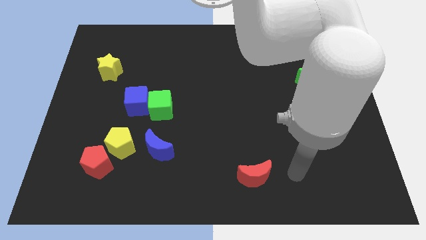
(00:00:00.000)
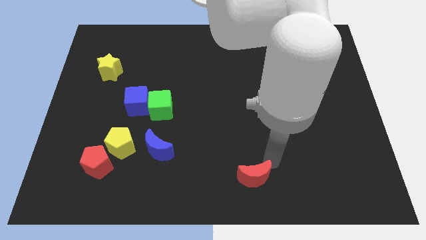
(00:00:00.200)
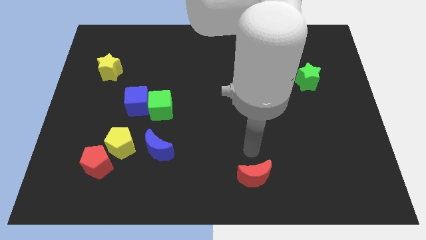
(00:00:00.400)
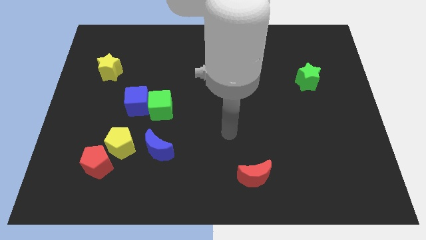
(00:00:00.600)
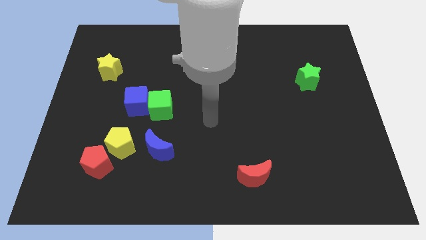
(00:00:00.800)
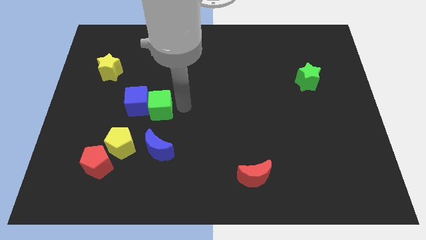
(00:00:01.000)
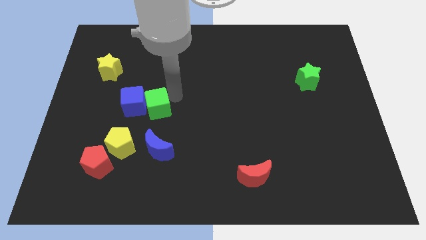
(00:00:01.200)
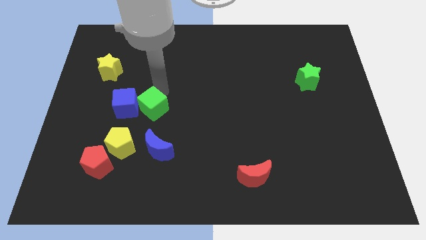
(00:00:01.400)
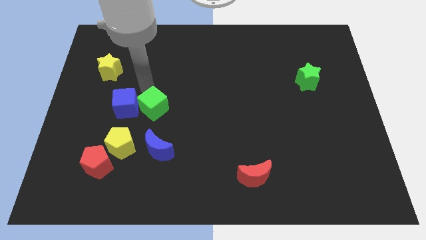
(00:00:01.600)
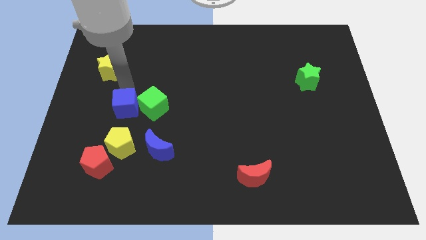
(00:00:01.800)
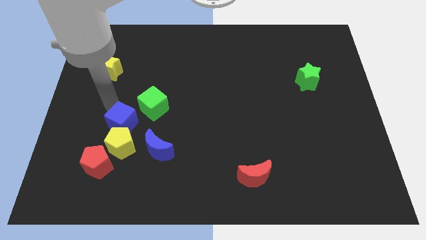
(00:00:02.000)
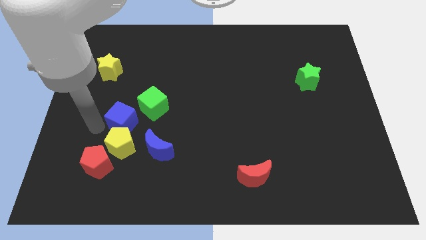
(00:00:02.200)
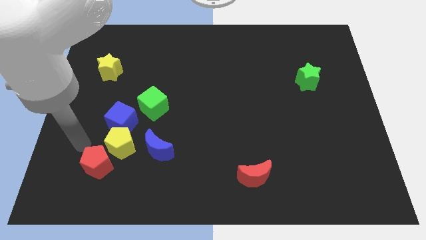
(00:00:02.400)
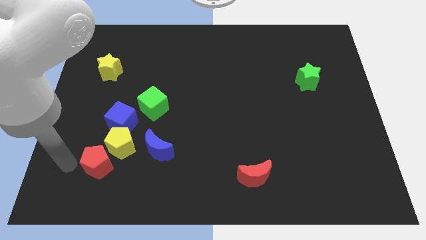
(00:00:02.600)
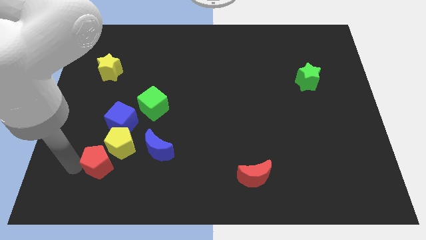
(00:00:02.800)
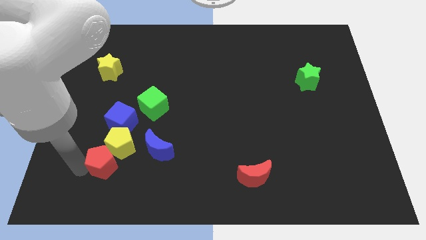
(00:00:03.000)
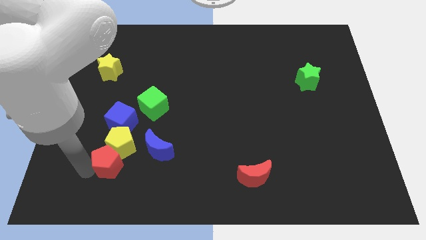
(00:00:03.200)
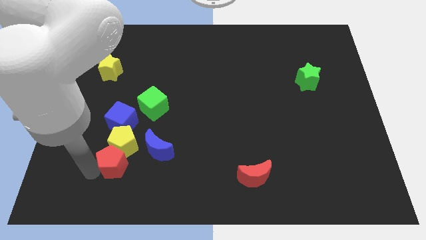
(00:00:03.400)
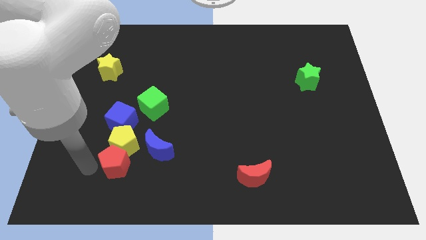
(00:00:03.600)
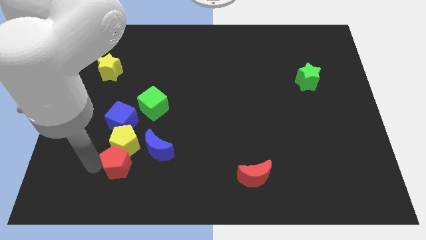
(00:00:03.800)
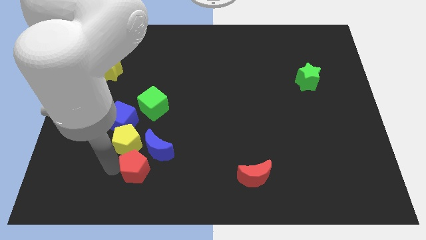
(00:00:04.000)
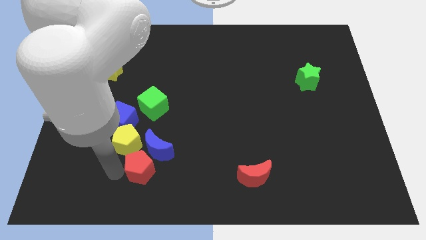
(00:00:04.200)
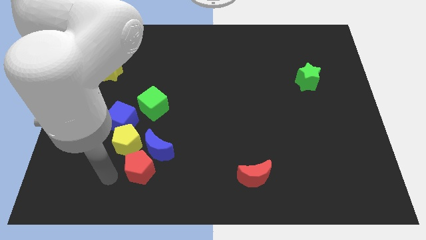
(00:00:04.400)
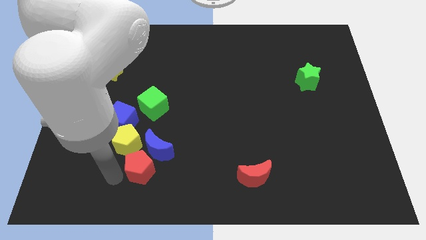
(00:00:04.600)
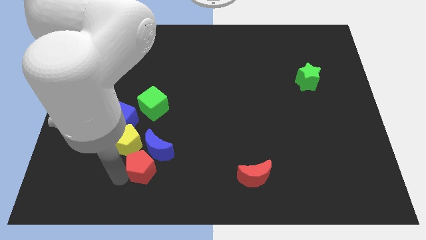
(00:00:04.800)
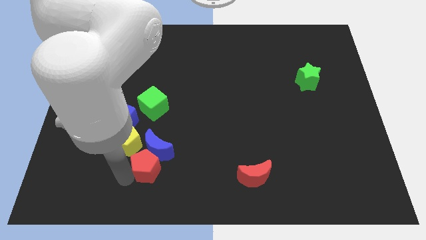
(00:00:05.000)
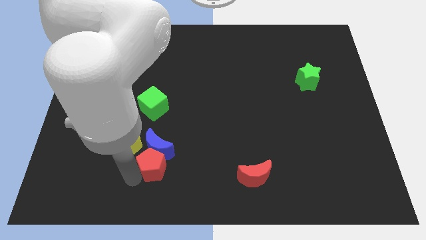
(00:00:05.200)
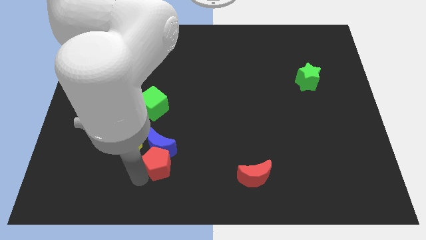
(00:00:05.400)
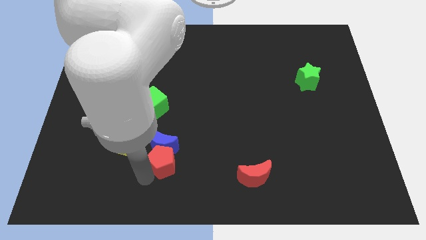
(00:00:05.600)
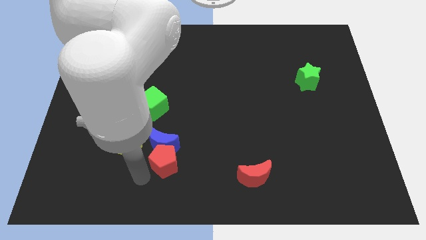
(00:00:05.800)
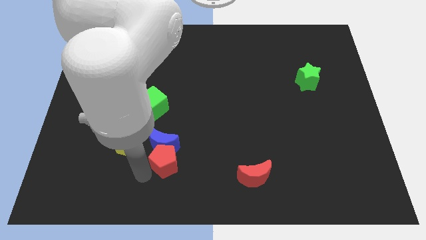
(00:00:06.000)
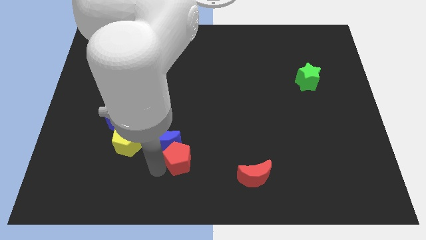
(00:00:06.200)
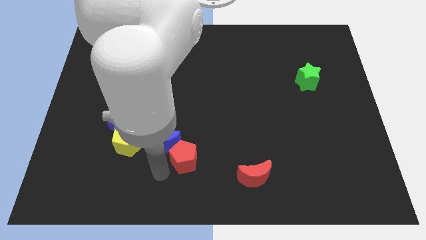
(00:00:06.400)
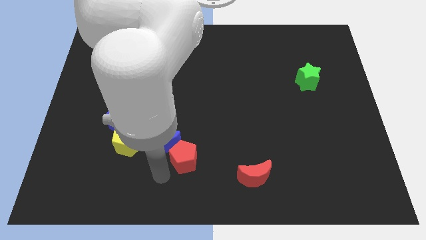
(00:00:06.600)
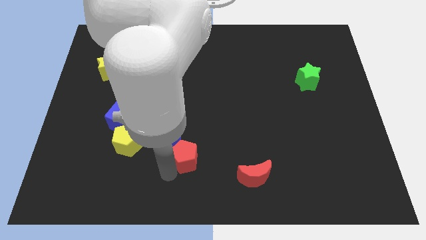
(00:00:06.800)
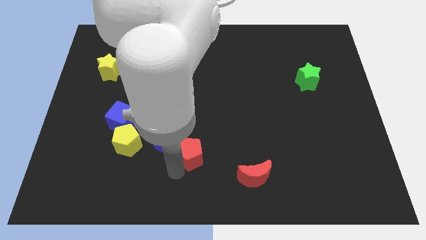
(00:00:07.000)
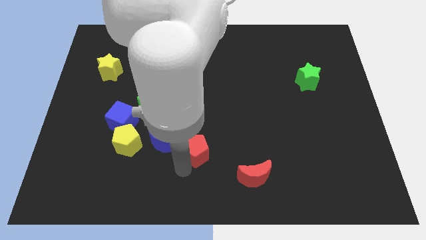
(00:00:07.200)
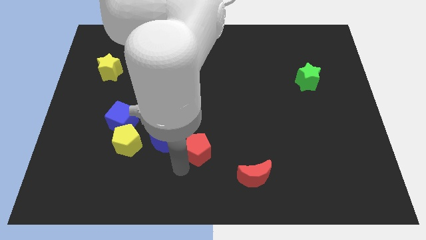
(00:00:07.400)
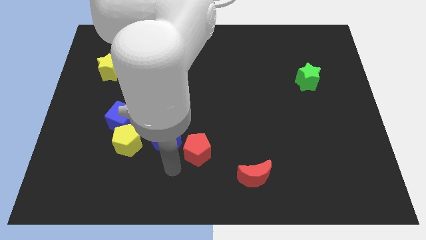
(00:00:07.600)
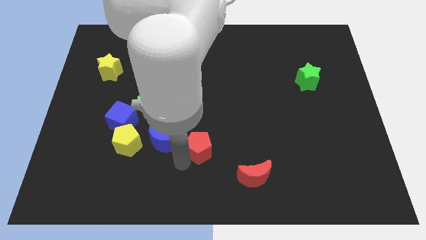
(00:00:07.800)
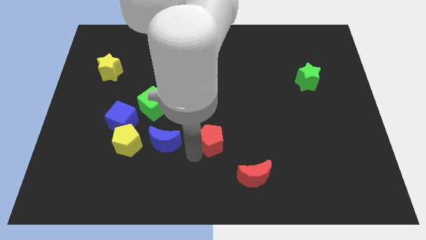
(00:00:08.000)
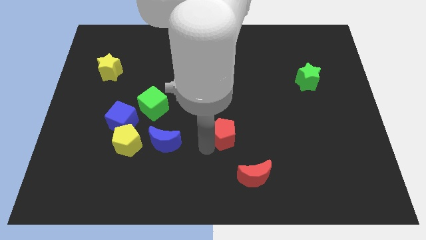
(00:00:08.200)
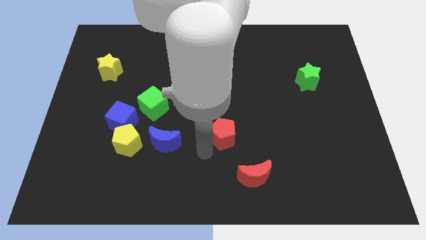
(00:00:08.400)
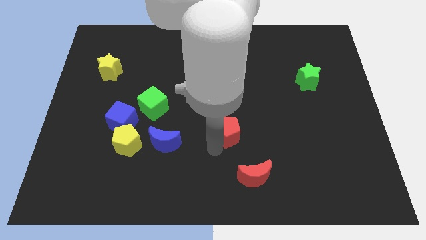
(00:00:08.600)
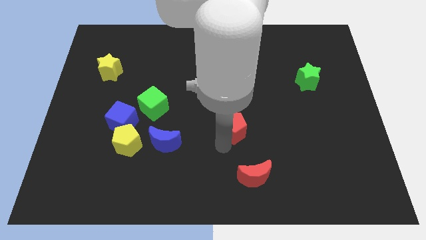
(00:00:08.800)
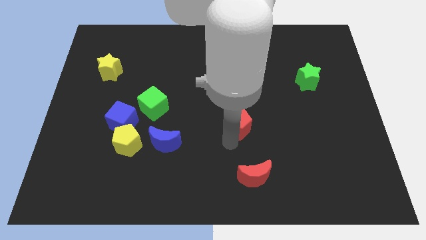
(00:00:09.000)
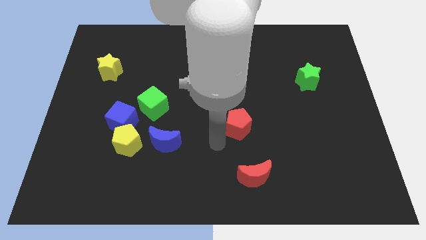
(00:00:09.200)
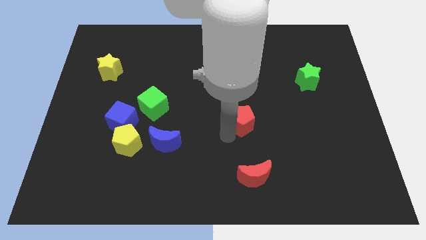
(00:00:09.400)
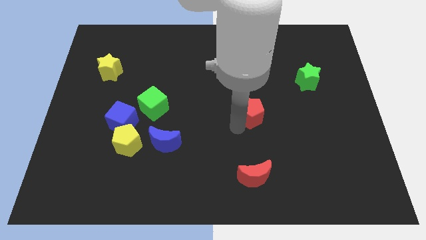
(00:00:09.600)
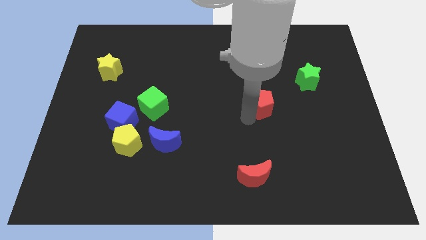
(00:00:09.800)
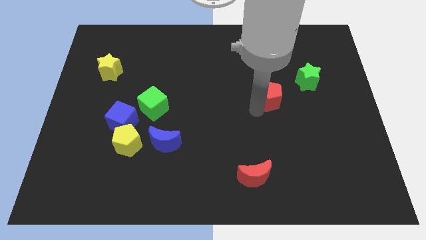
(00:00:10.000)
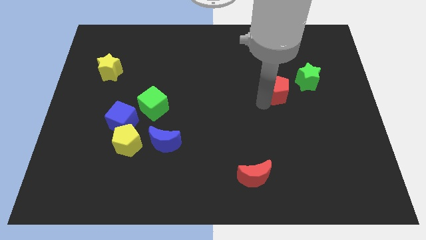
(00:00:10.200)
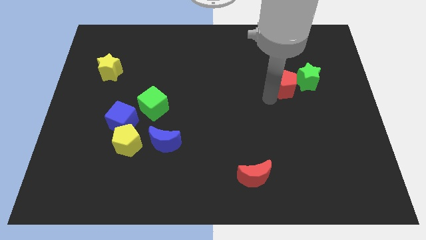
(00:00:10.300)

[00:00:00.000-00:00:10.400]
slide the red pentagon towards the green star

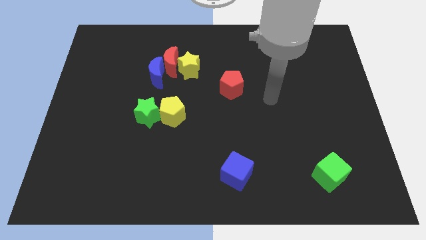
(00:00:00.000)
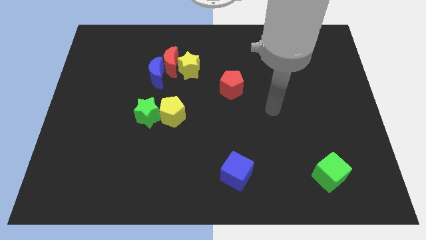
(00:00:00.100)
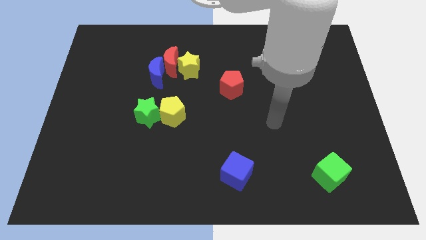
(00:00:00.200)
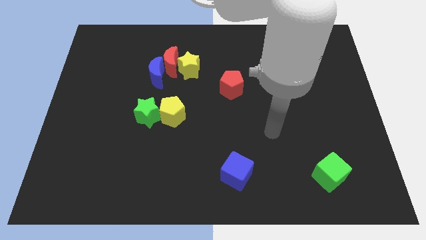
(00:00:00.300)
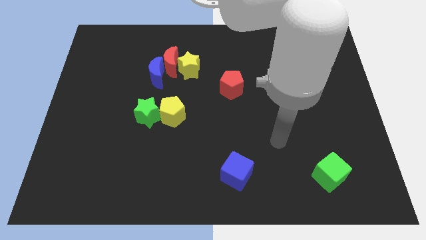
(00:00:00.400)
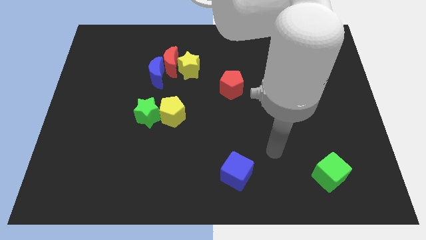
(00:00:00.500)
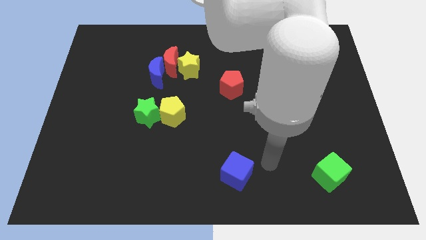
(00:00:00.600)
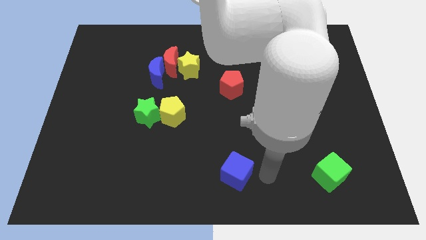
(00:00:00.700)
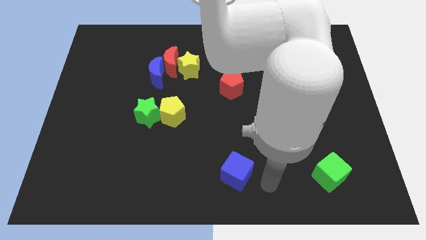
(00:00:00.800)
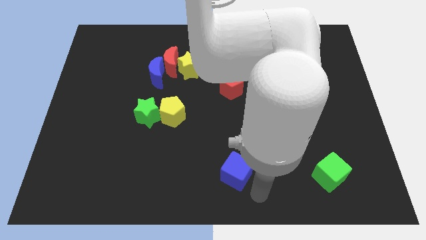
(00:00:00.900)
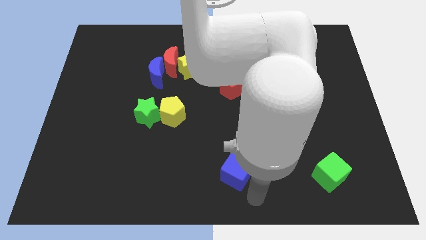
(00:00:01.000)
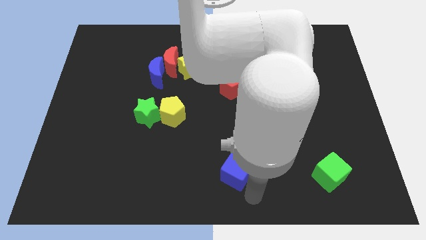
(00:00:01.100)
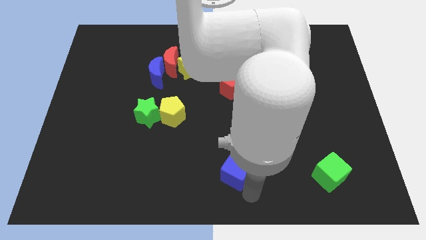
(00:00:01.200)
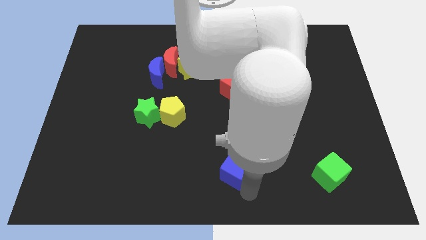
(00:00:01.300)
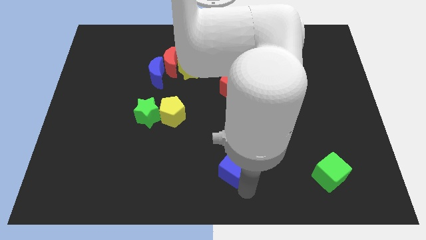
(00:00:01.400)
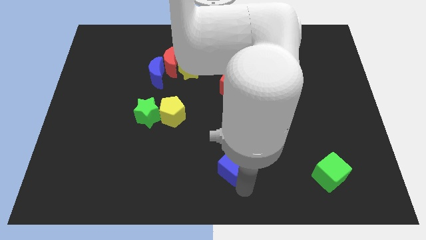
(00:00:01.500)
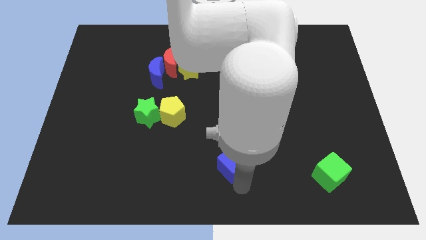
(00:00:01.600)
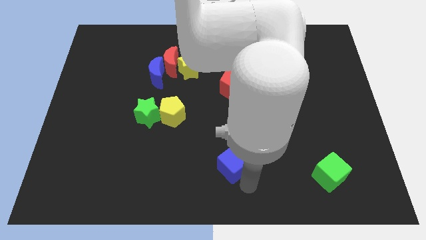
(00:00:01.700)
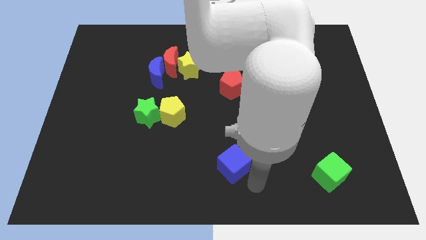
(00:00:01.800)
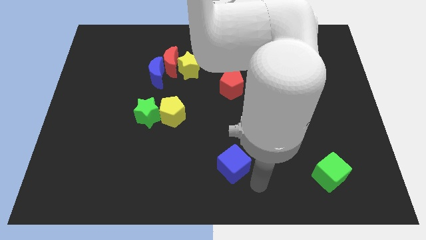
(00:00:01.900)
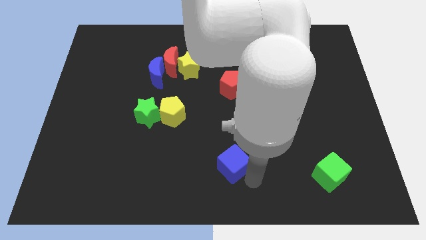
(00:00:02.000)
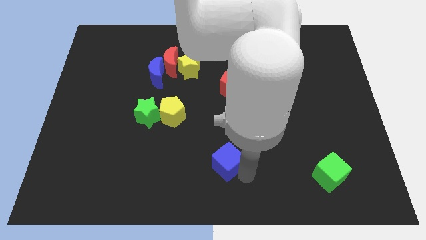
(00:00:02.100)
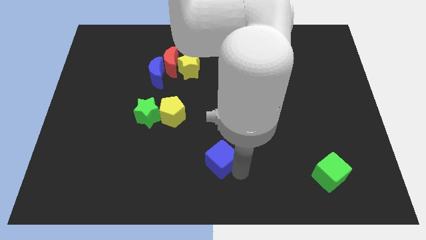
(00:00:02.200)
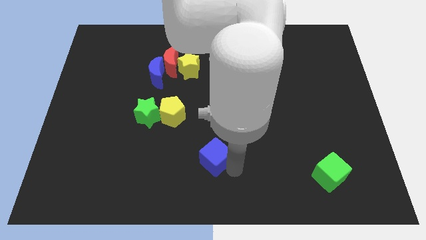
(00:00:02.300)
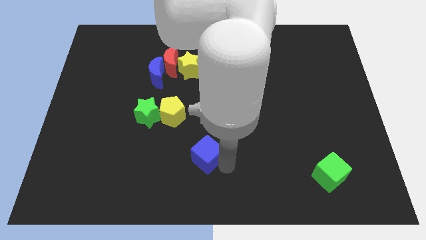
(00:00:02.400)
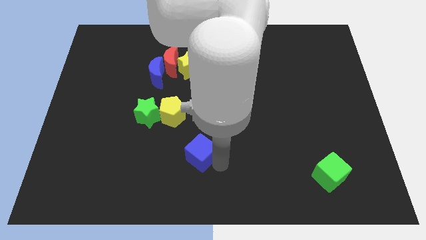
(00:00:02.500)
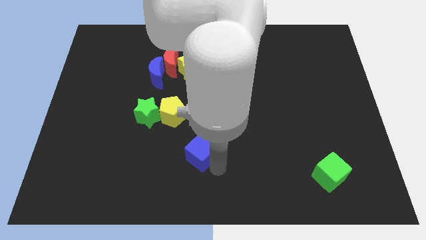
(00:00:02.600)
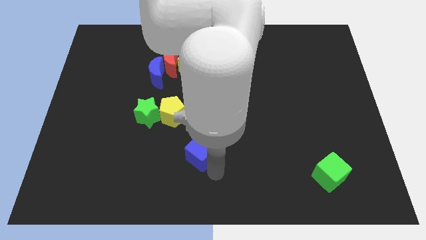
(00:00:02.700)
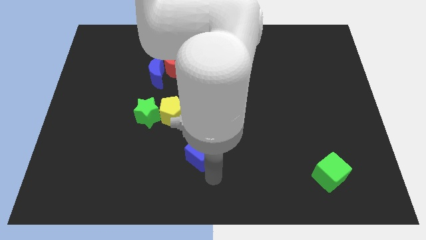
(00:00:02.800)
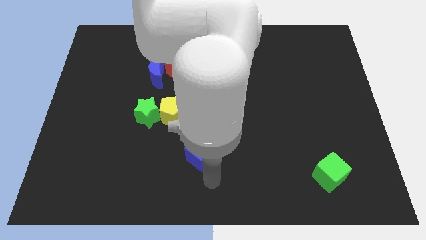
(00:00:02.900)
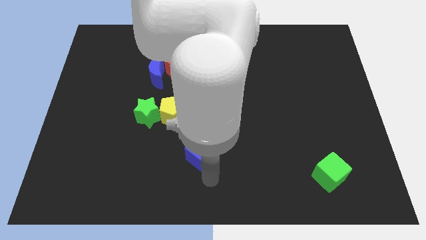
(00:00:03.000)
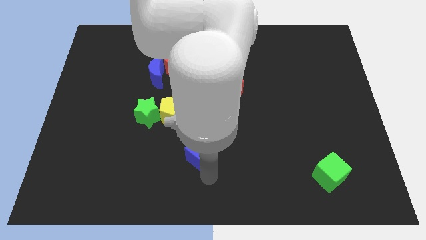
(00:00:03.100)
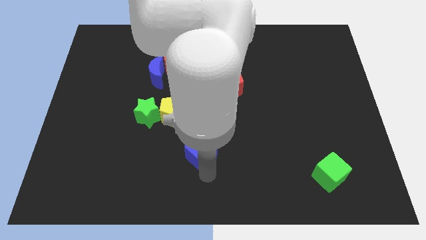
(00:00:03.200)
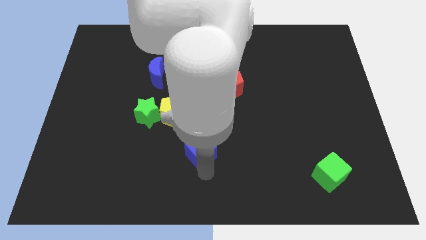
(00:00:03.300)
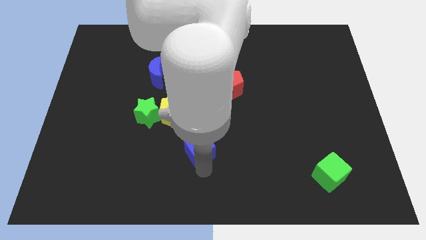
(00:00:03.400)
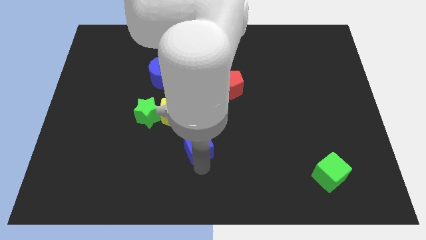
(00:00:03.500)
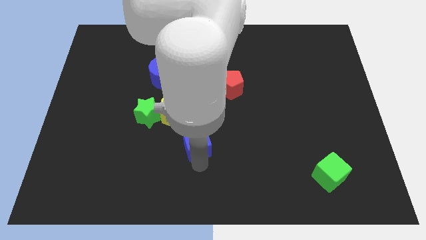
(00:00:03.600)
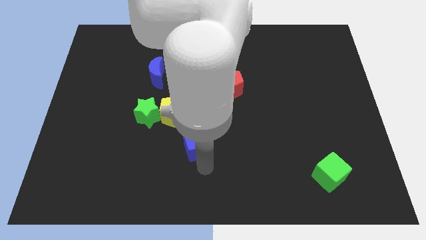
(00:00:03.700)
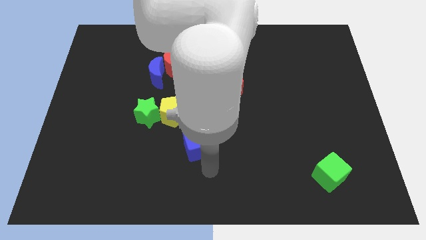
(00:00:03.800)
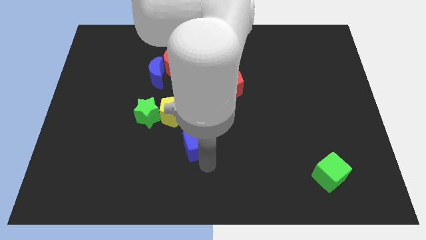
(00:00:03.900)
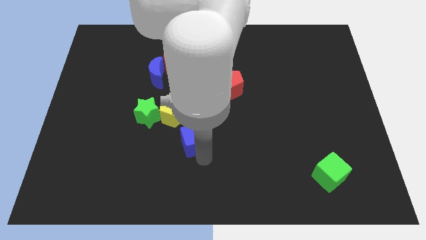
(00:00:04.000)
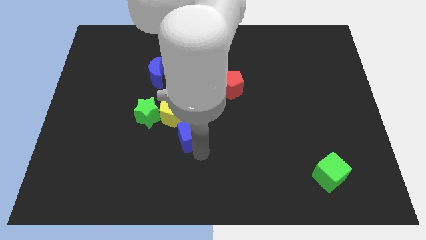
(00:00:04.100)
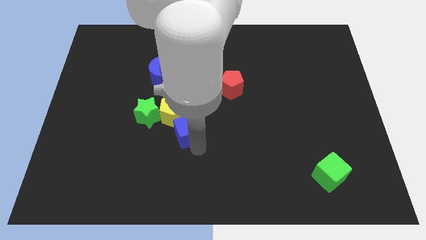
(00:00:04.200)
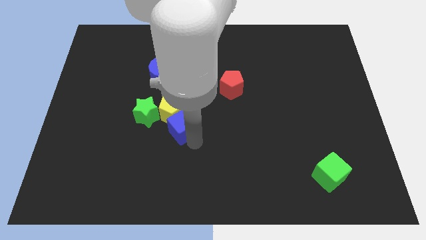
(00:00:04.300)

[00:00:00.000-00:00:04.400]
put the blue cube close to the yellow pentagon
